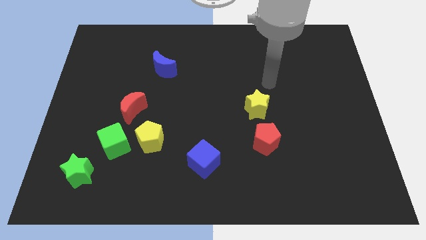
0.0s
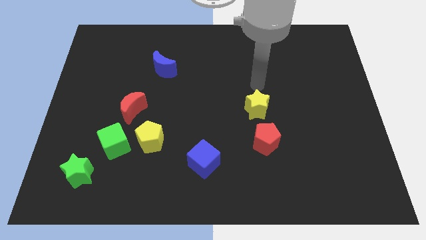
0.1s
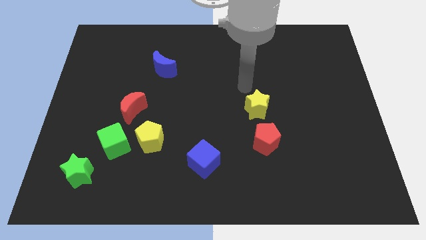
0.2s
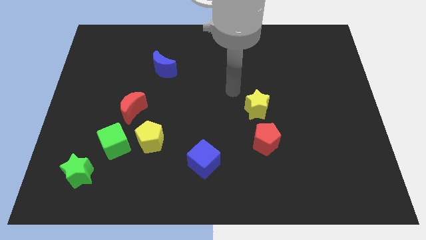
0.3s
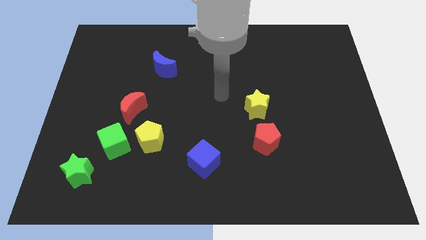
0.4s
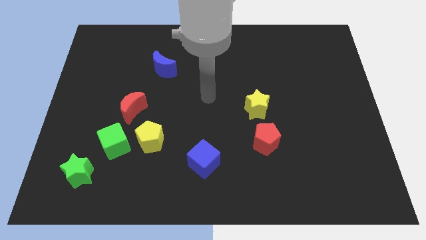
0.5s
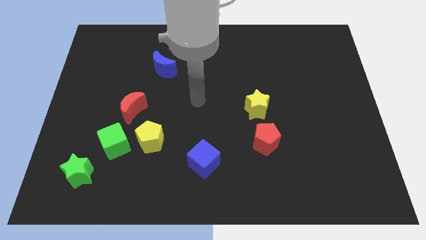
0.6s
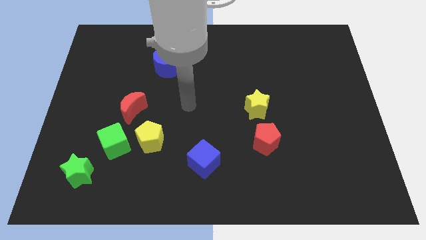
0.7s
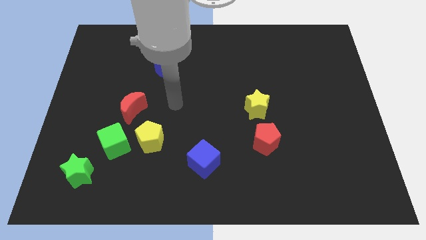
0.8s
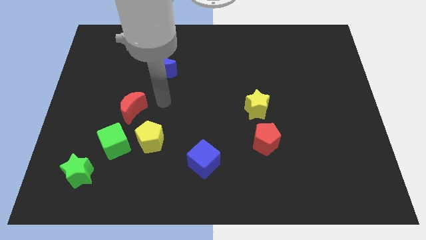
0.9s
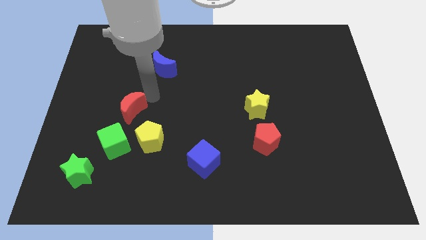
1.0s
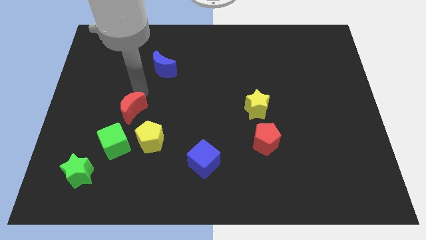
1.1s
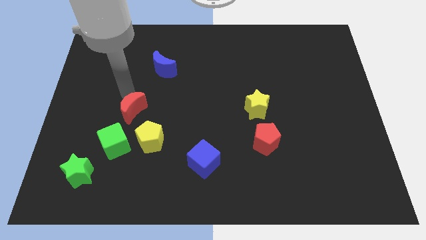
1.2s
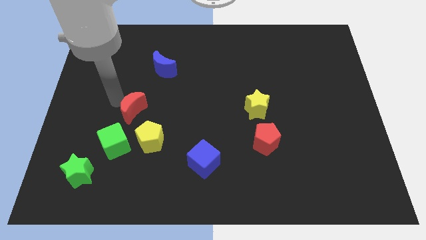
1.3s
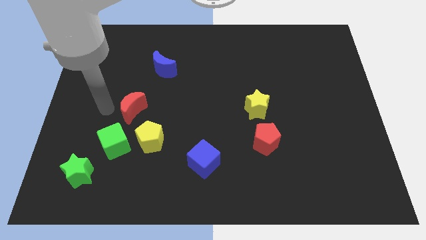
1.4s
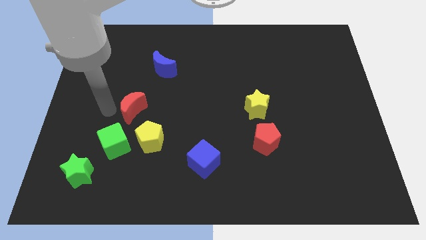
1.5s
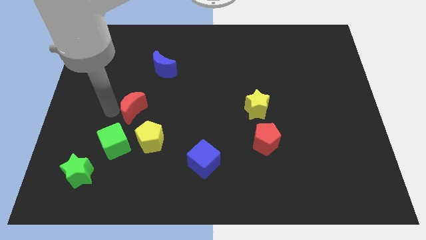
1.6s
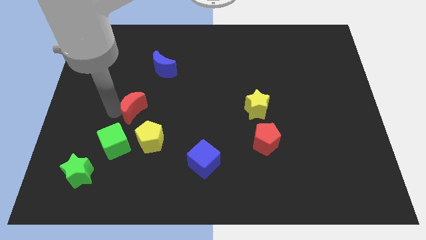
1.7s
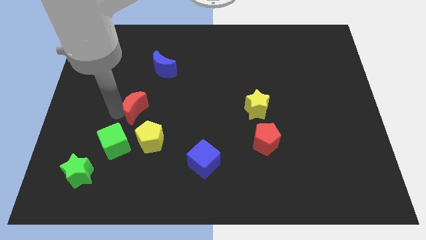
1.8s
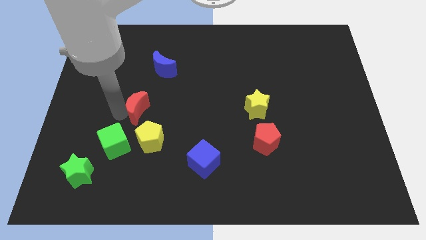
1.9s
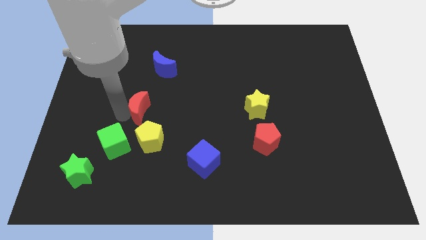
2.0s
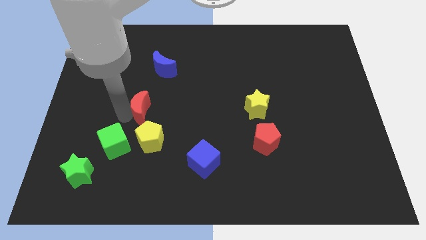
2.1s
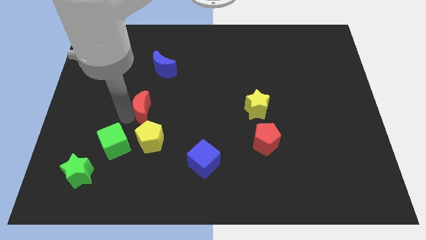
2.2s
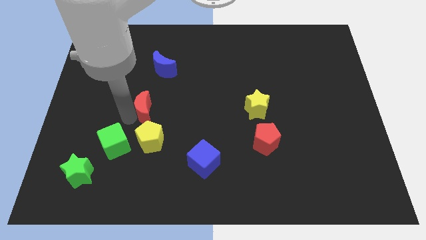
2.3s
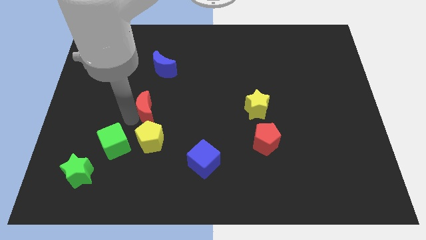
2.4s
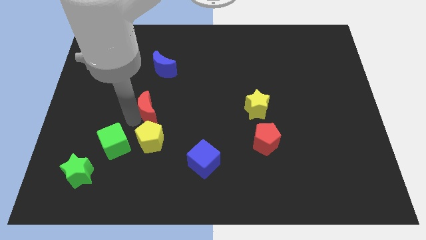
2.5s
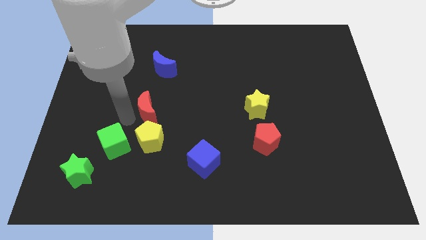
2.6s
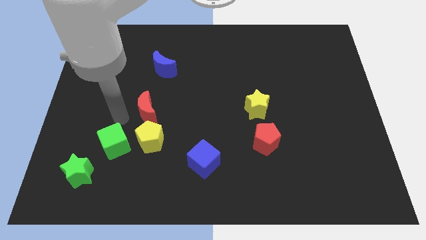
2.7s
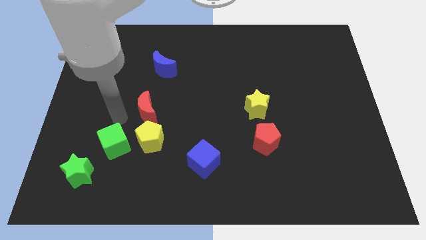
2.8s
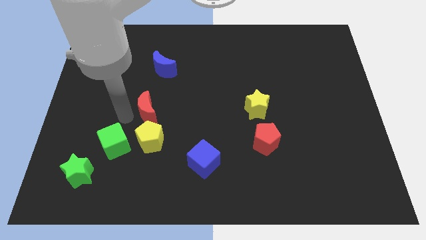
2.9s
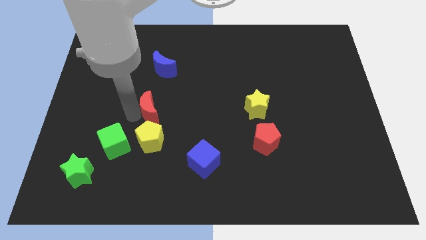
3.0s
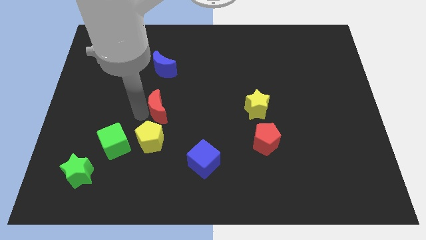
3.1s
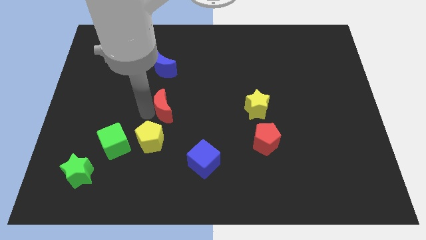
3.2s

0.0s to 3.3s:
slightly slide the red moon to the right

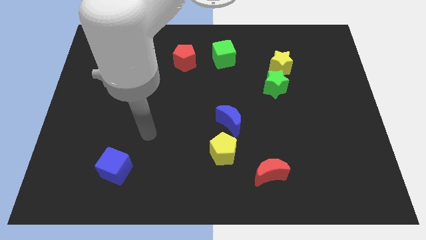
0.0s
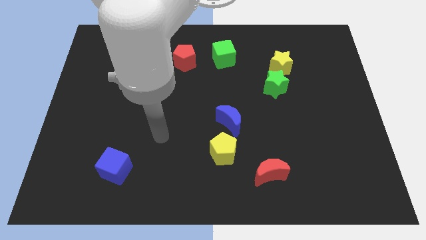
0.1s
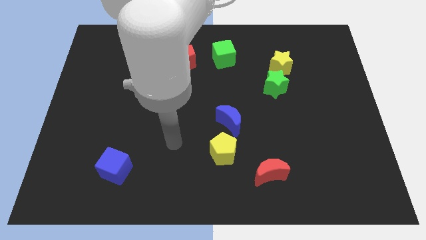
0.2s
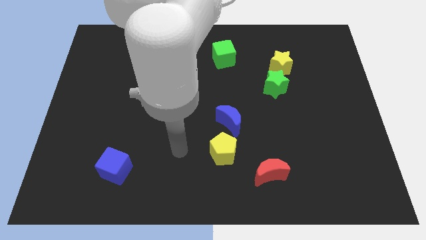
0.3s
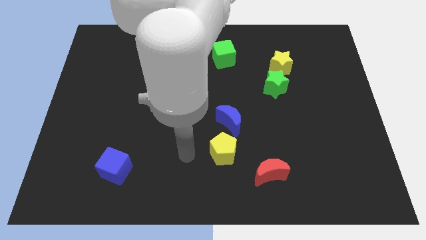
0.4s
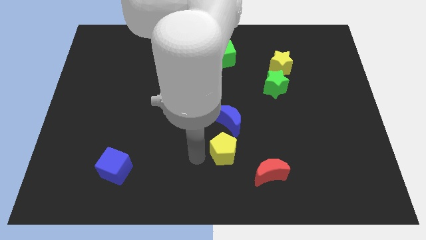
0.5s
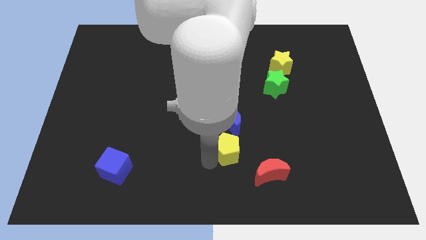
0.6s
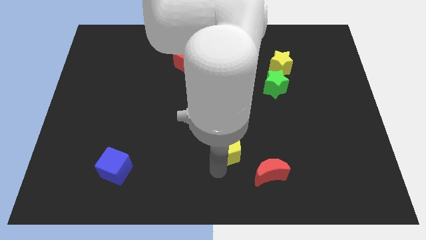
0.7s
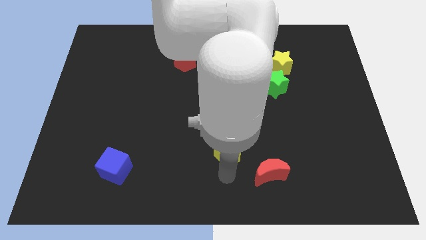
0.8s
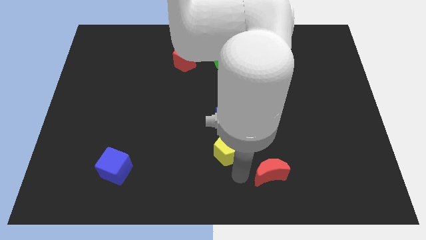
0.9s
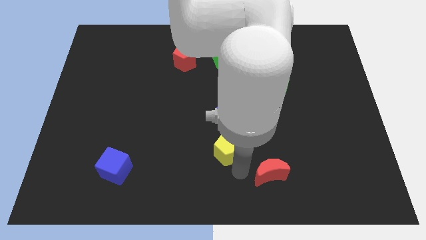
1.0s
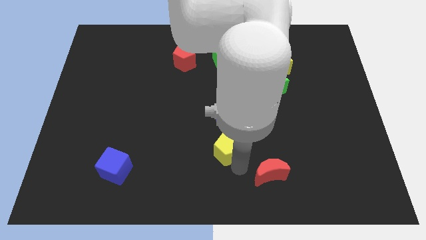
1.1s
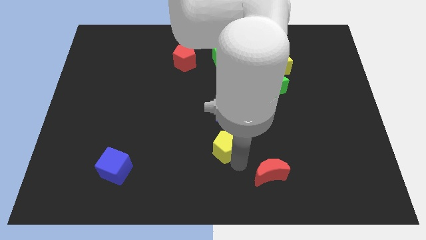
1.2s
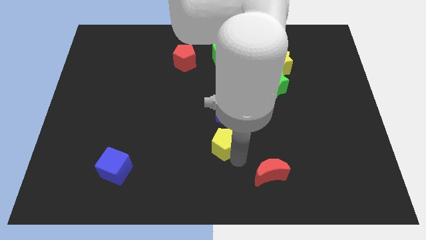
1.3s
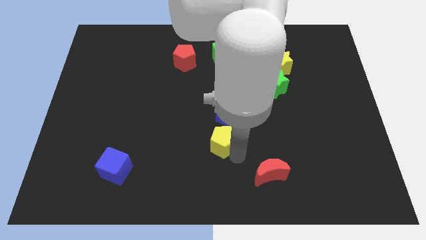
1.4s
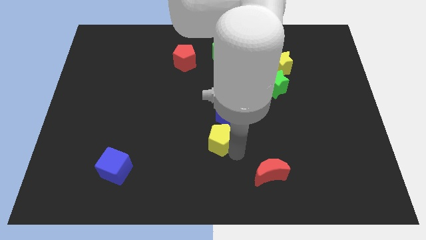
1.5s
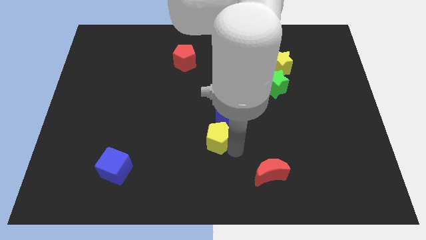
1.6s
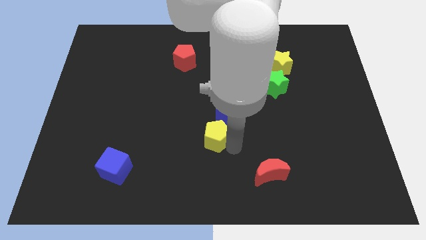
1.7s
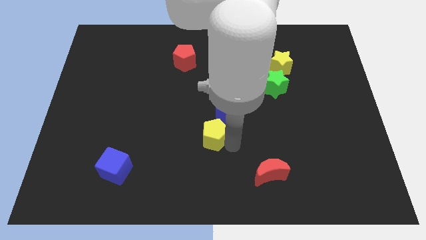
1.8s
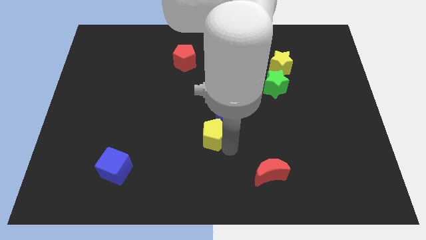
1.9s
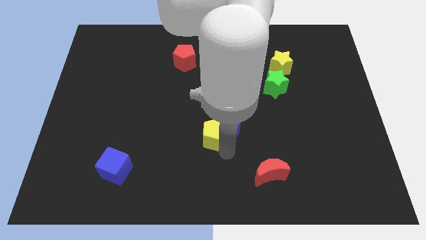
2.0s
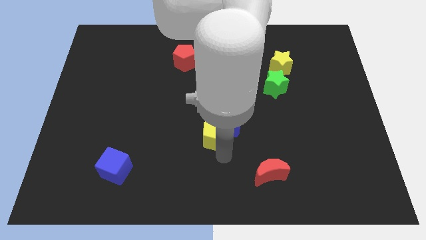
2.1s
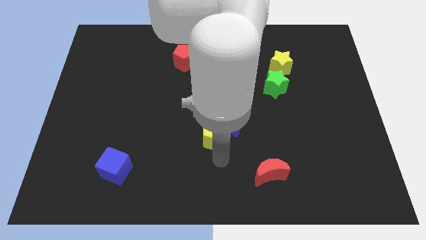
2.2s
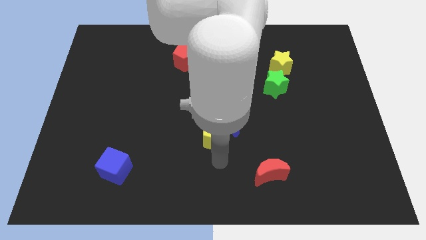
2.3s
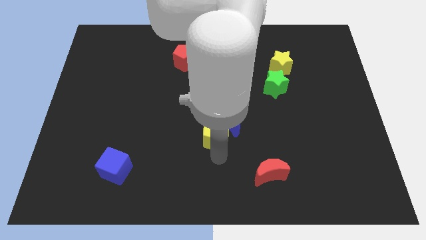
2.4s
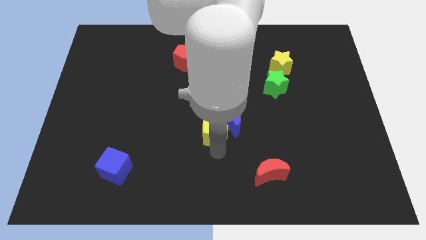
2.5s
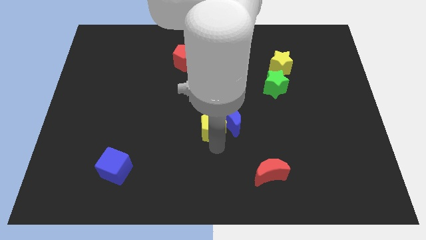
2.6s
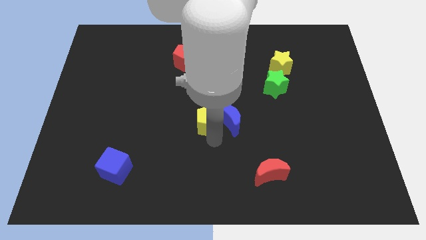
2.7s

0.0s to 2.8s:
move the yellow pentagon somewhat upwards

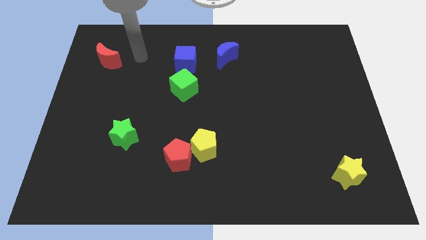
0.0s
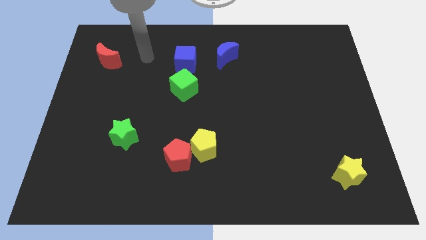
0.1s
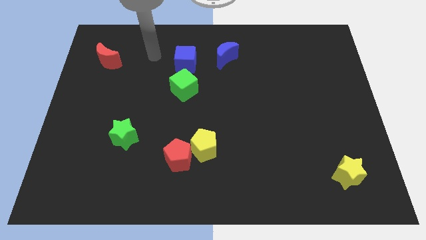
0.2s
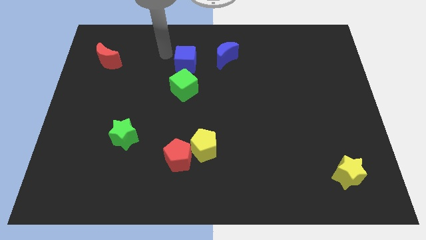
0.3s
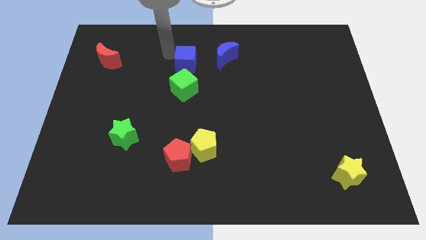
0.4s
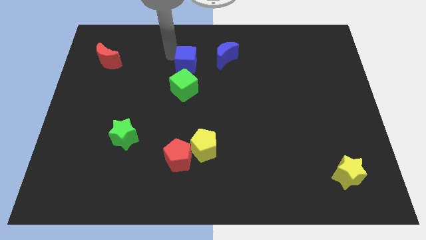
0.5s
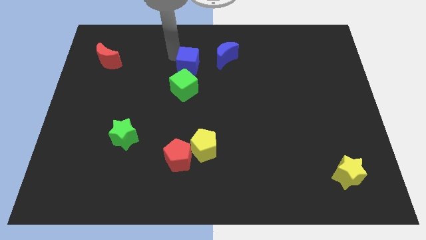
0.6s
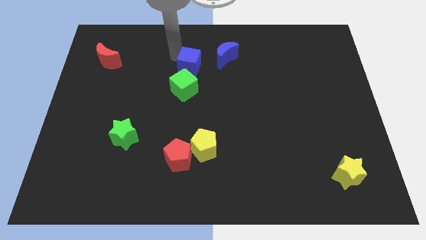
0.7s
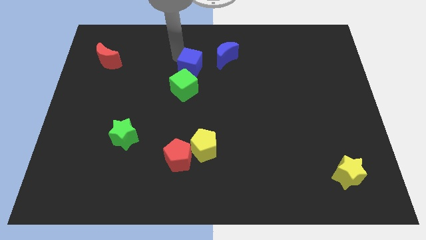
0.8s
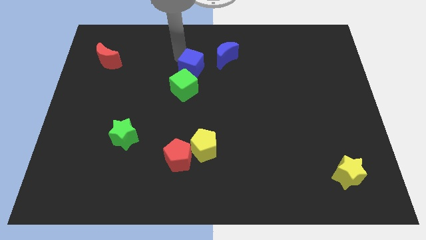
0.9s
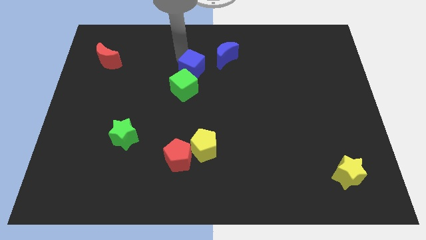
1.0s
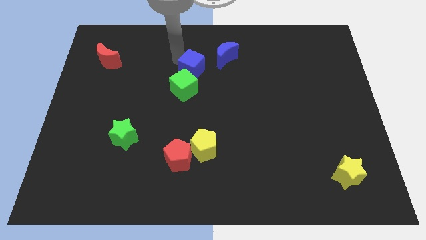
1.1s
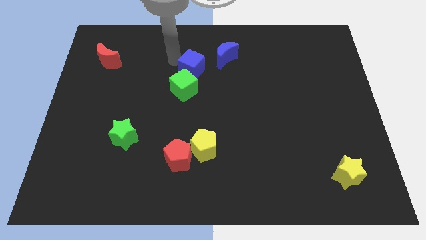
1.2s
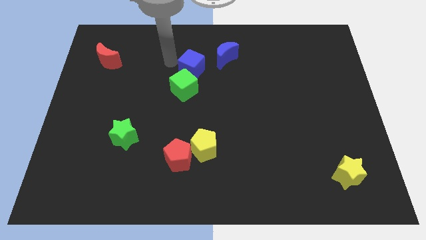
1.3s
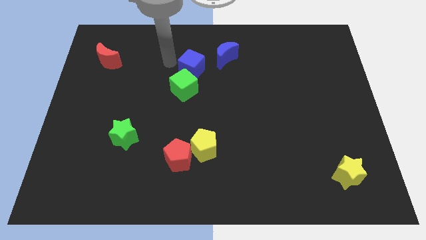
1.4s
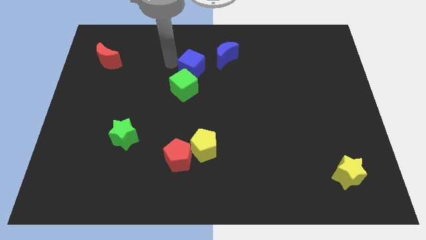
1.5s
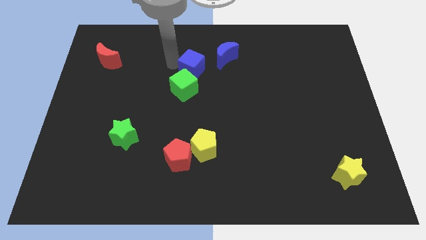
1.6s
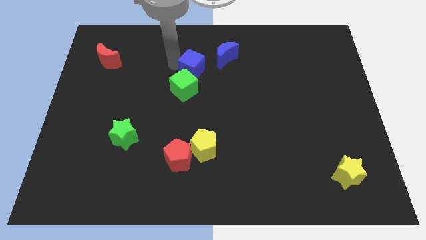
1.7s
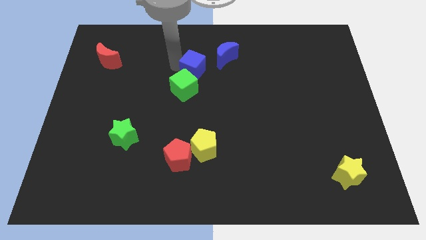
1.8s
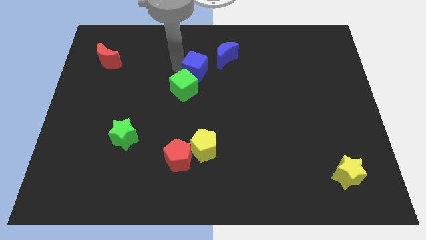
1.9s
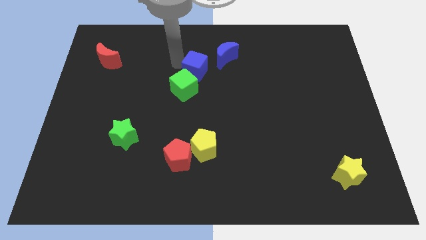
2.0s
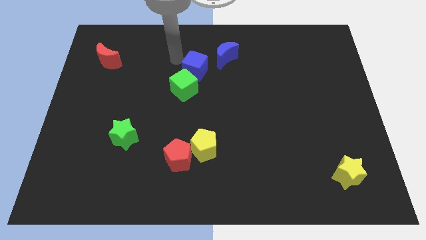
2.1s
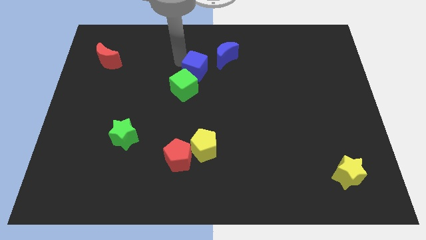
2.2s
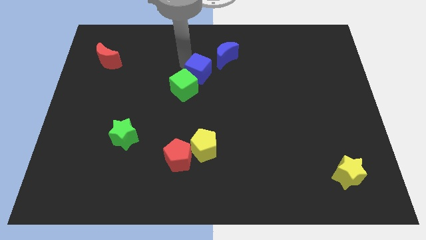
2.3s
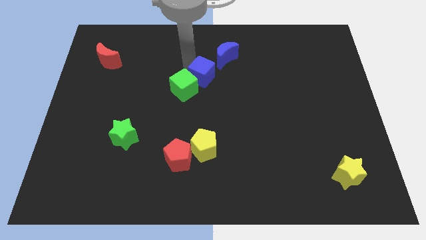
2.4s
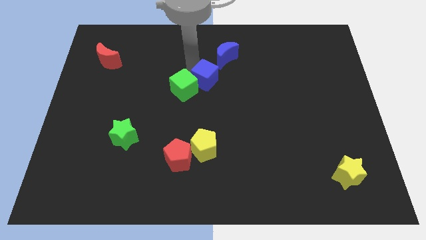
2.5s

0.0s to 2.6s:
slide the blue cube downwards and right a little
